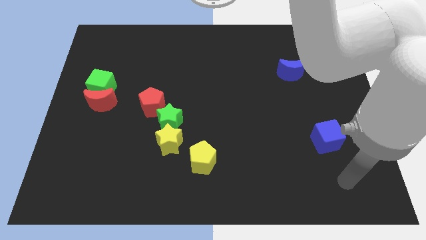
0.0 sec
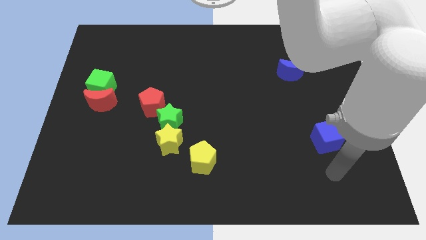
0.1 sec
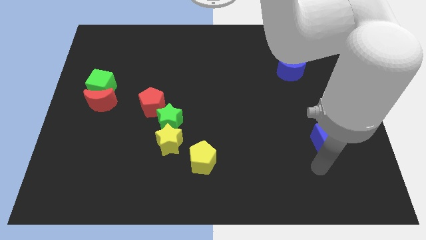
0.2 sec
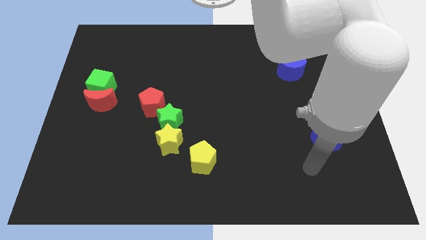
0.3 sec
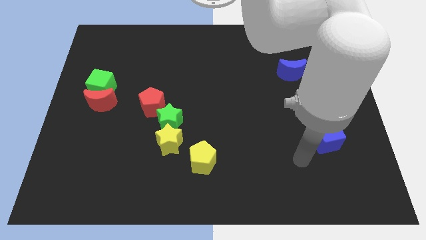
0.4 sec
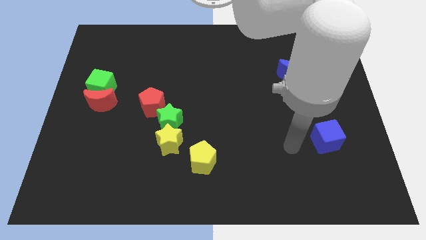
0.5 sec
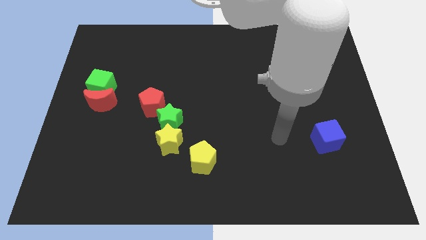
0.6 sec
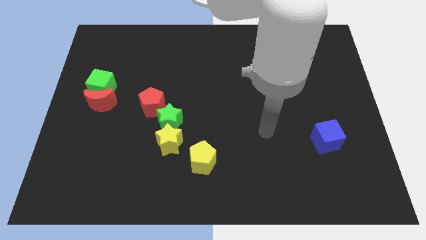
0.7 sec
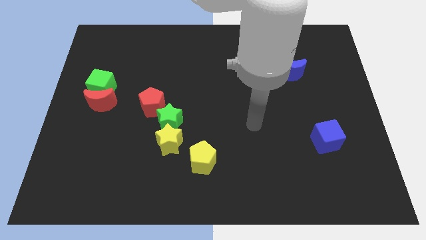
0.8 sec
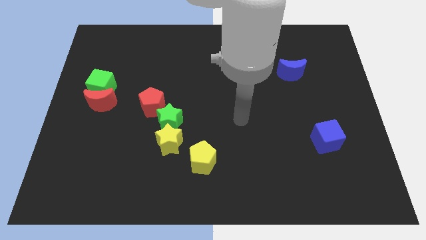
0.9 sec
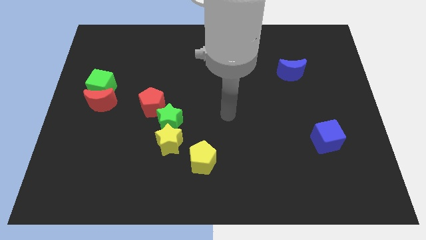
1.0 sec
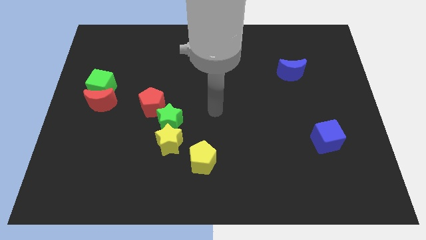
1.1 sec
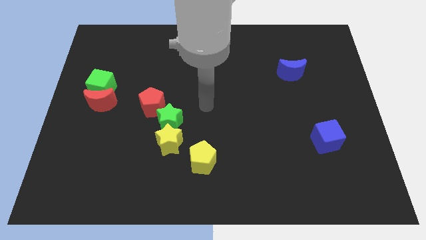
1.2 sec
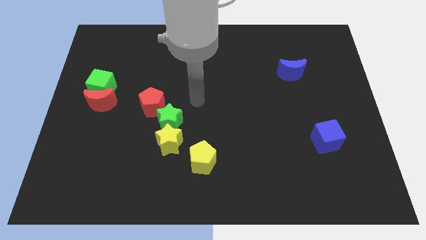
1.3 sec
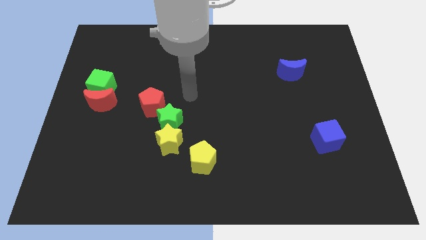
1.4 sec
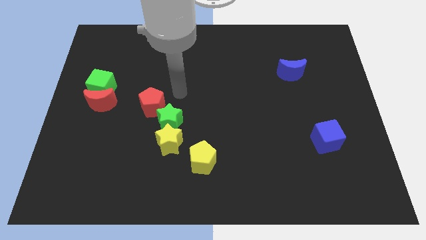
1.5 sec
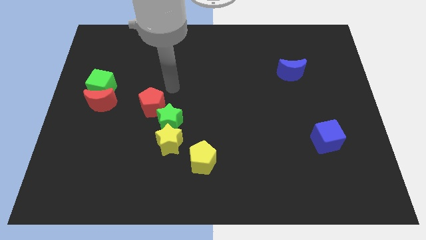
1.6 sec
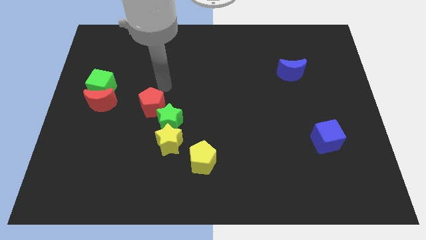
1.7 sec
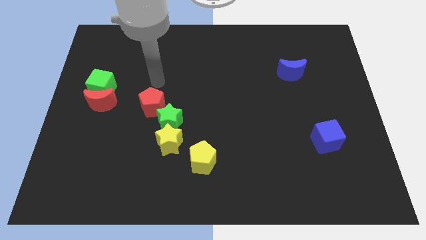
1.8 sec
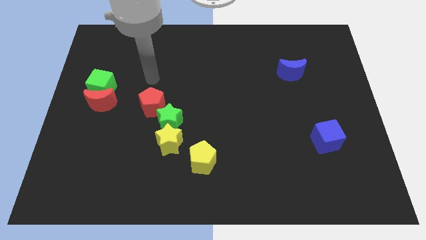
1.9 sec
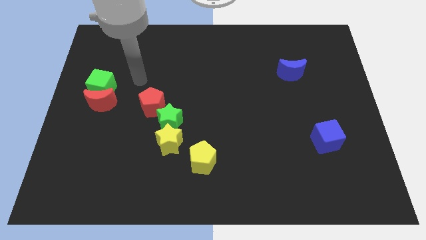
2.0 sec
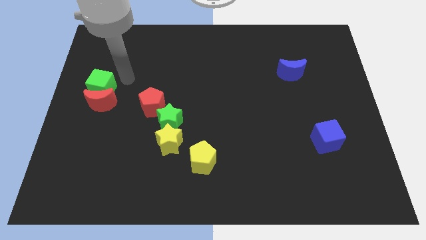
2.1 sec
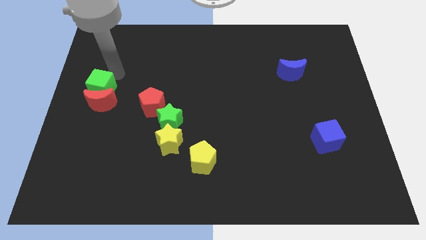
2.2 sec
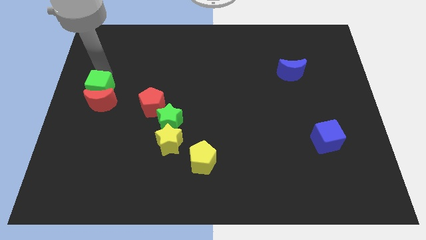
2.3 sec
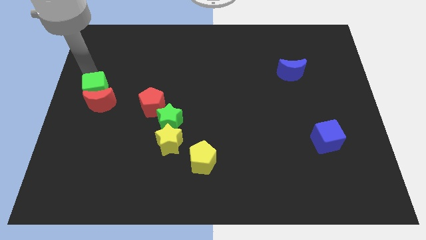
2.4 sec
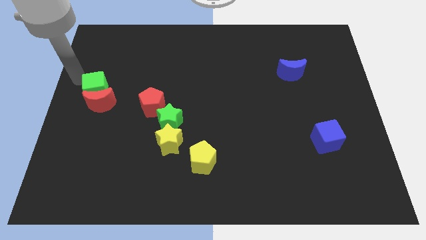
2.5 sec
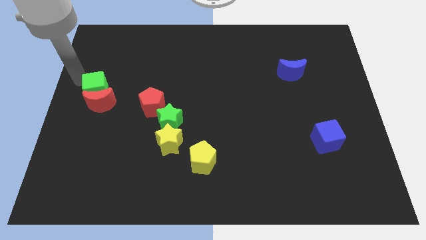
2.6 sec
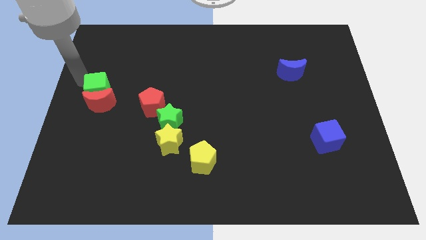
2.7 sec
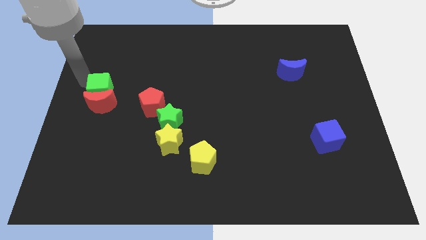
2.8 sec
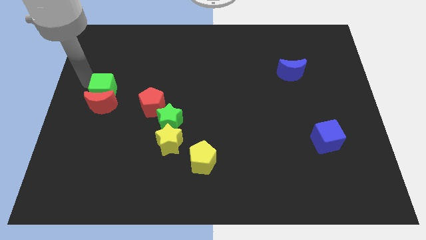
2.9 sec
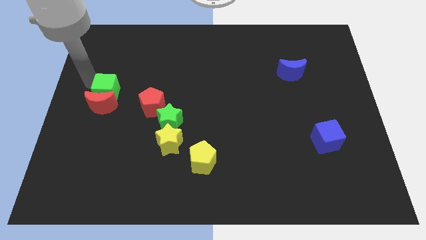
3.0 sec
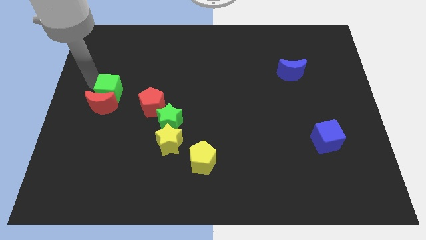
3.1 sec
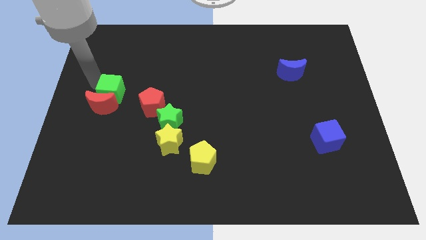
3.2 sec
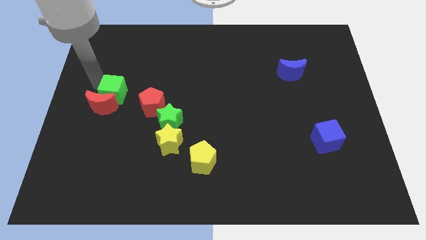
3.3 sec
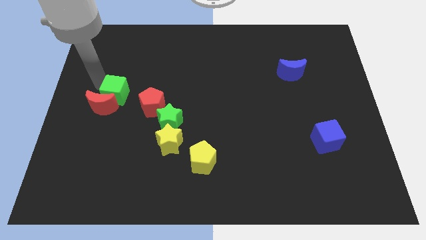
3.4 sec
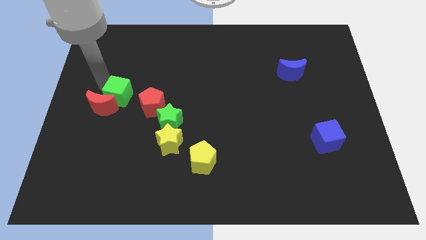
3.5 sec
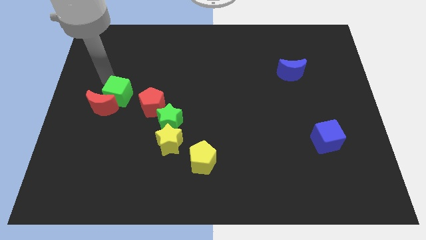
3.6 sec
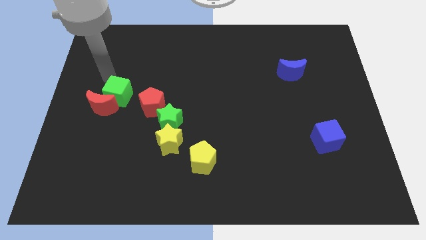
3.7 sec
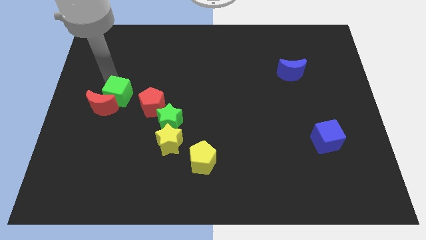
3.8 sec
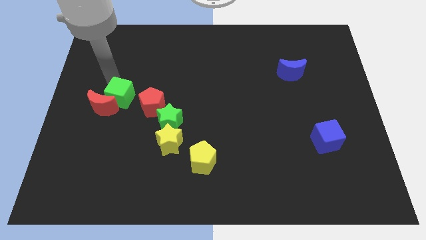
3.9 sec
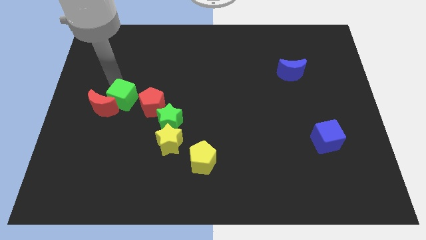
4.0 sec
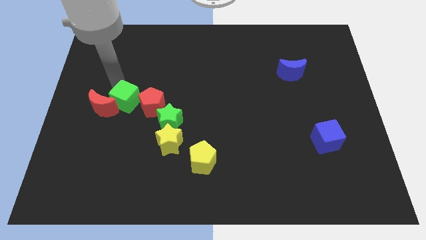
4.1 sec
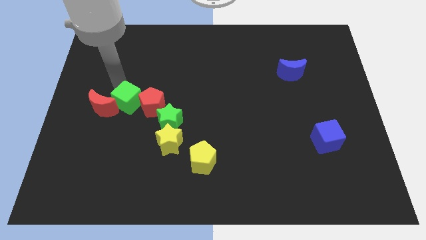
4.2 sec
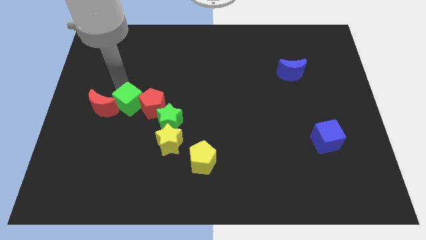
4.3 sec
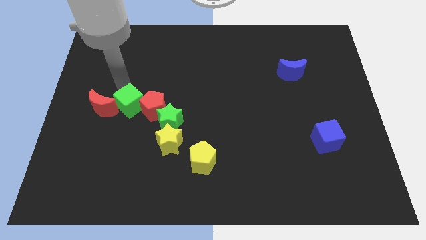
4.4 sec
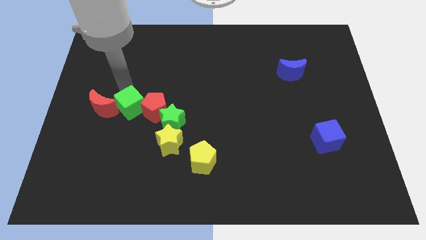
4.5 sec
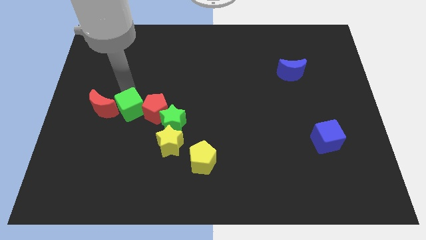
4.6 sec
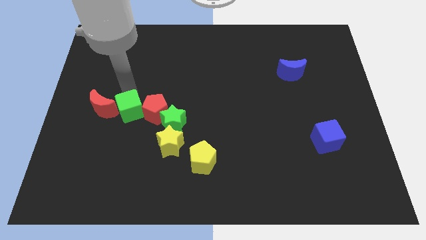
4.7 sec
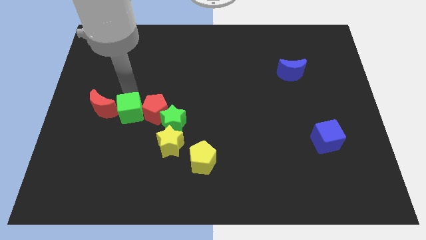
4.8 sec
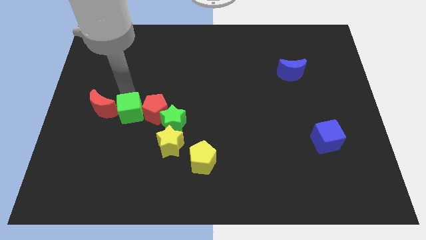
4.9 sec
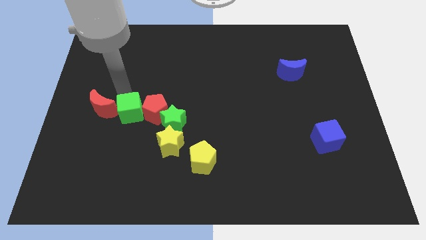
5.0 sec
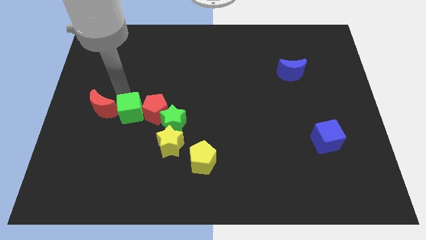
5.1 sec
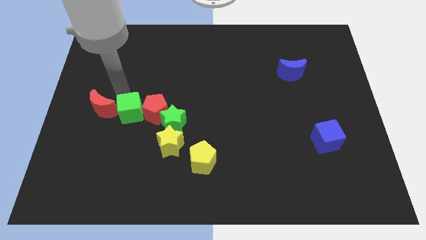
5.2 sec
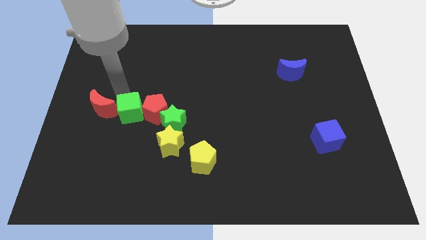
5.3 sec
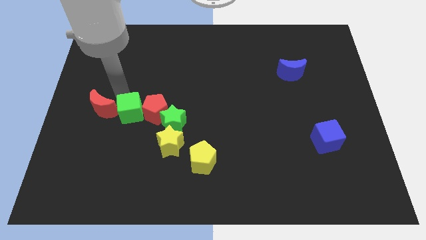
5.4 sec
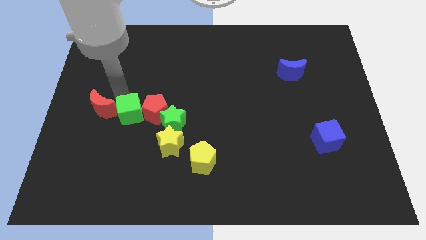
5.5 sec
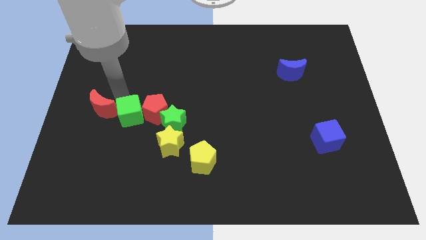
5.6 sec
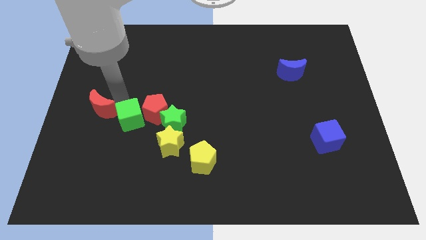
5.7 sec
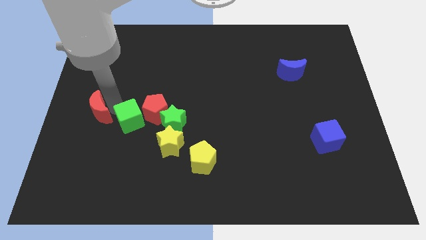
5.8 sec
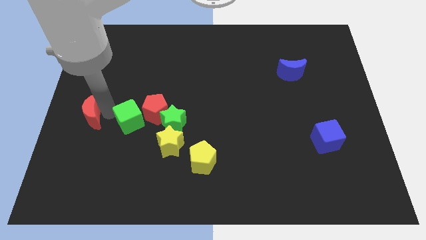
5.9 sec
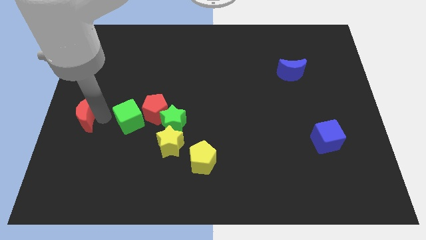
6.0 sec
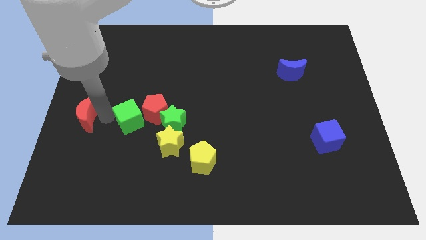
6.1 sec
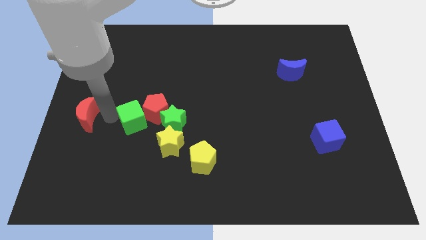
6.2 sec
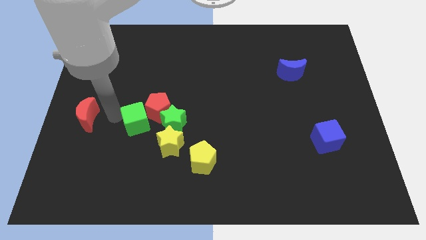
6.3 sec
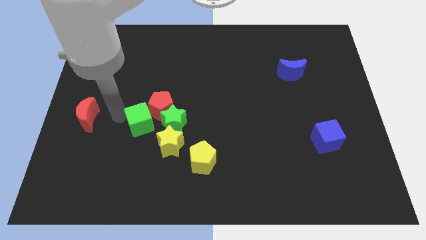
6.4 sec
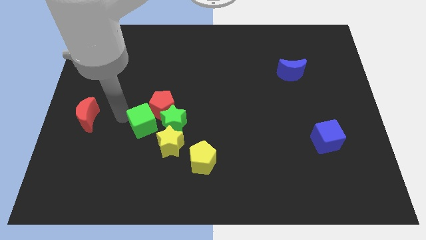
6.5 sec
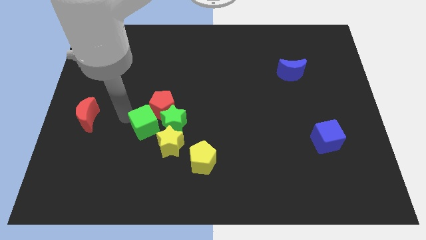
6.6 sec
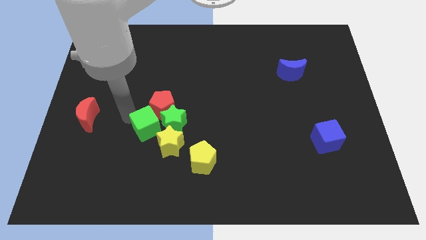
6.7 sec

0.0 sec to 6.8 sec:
slide the green cube towards the green star

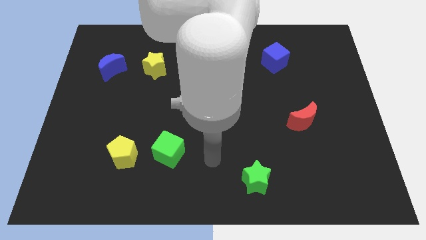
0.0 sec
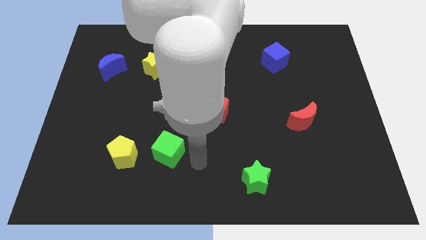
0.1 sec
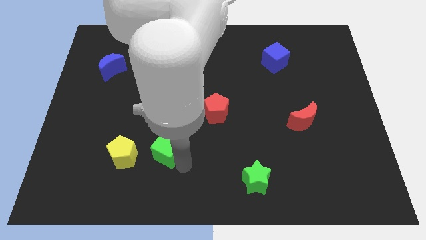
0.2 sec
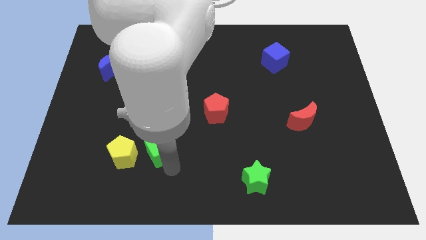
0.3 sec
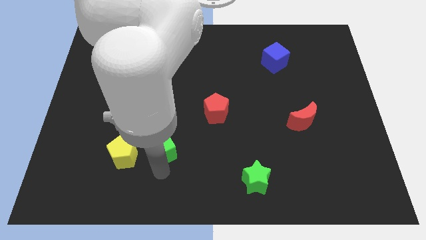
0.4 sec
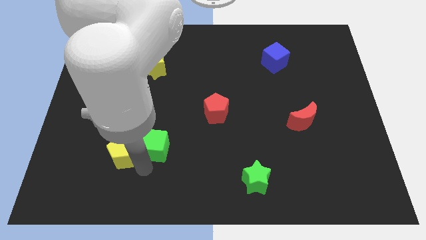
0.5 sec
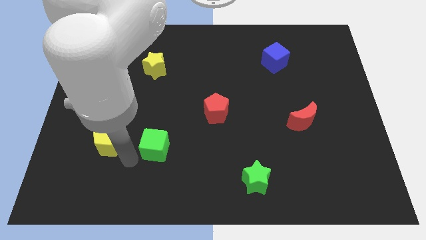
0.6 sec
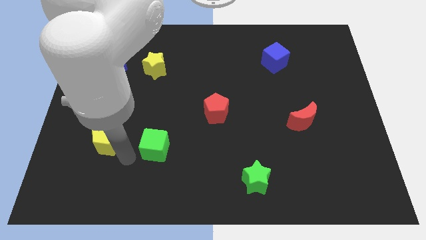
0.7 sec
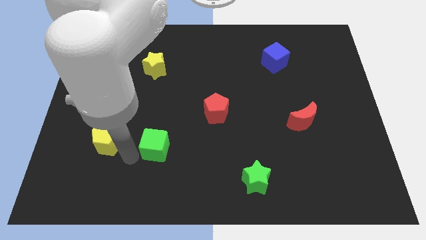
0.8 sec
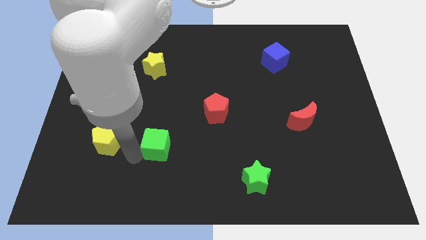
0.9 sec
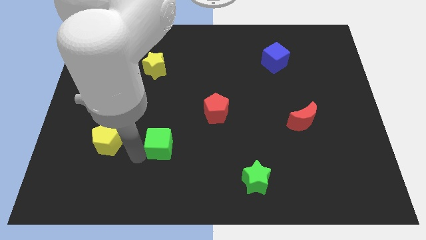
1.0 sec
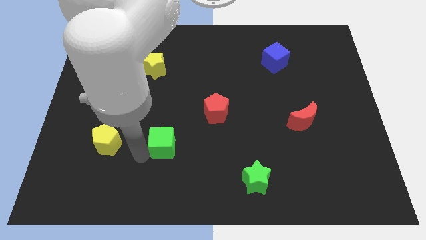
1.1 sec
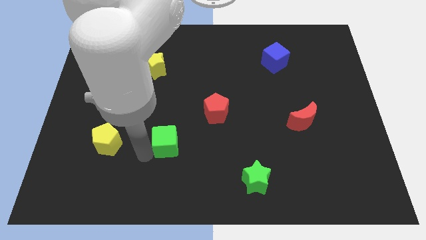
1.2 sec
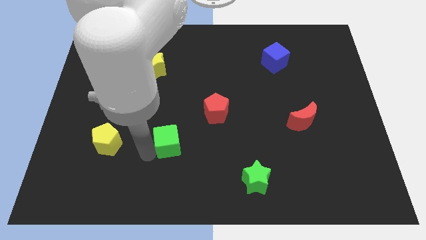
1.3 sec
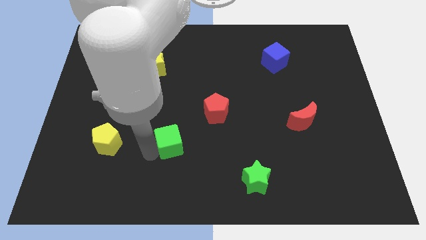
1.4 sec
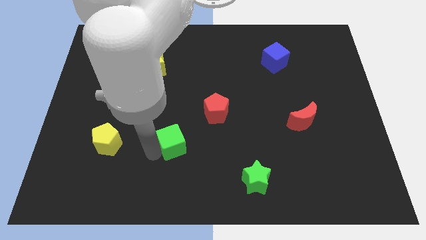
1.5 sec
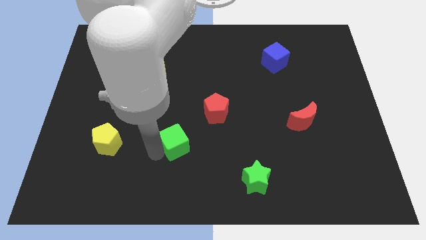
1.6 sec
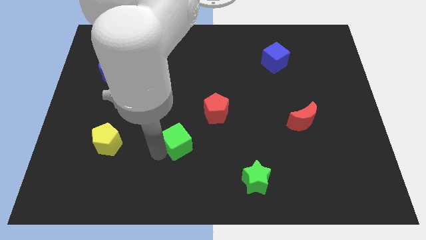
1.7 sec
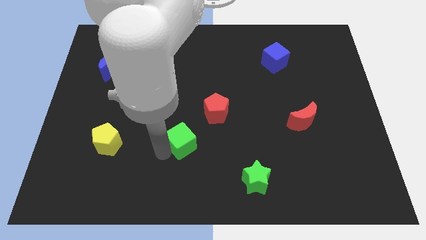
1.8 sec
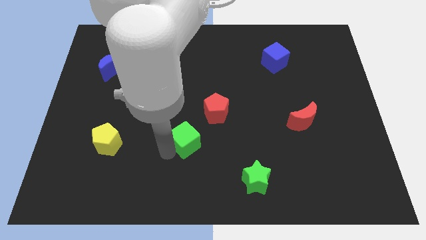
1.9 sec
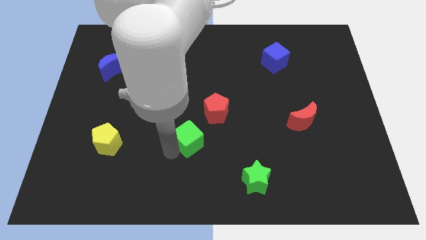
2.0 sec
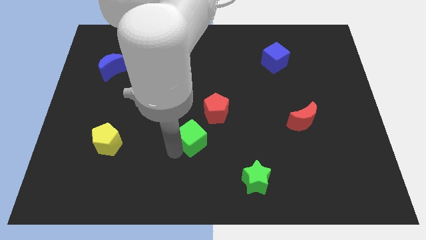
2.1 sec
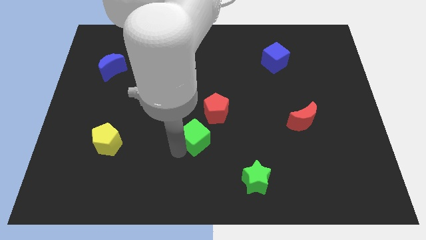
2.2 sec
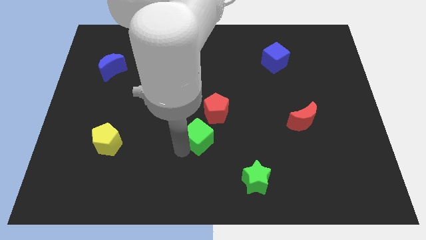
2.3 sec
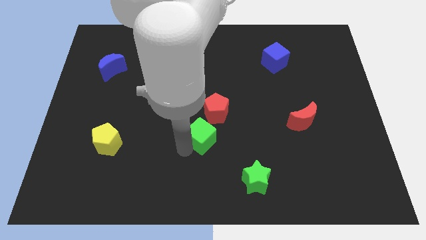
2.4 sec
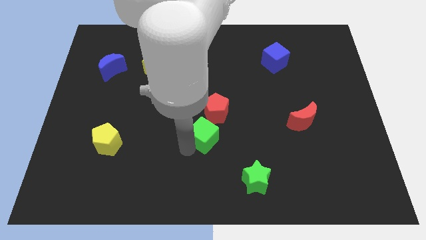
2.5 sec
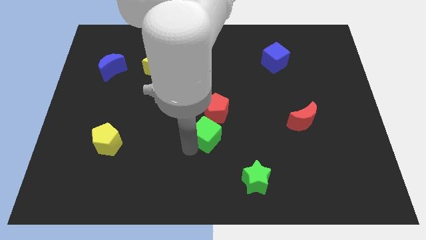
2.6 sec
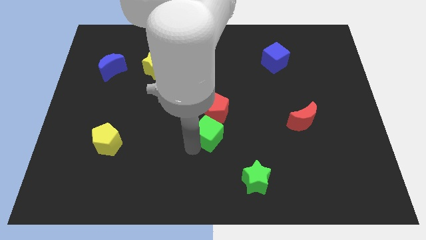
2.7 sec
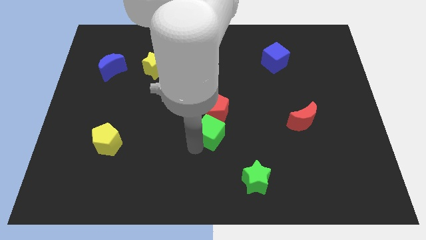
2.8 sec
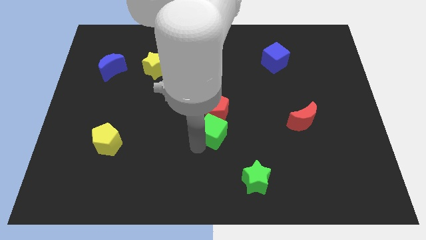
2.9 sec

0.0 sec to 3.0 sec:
move the green cube next to the red pentagon
